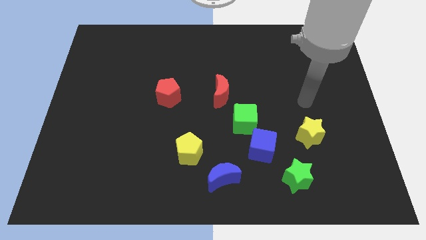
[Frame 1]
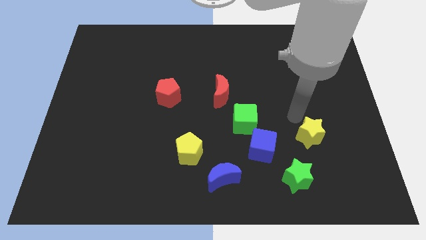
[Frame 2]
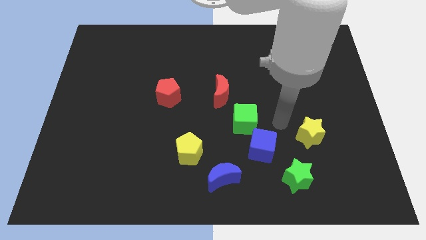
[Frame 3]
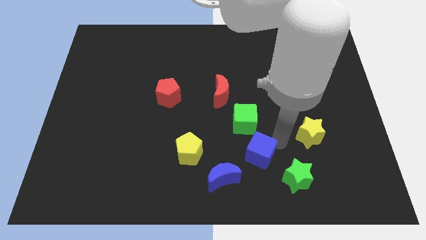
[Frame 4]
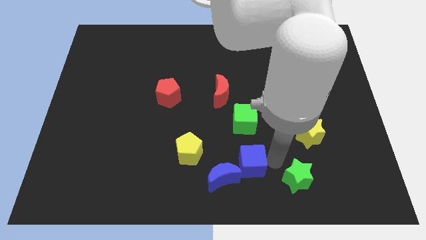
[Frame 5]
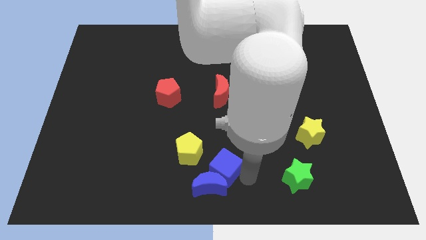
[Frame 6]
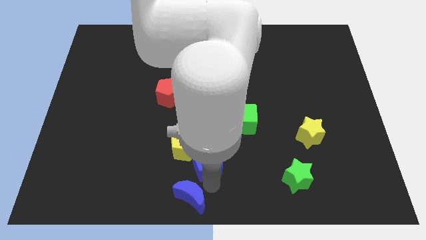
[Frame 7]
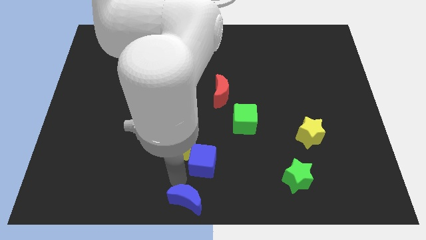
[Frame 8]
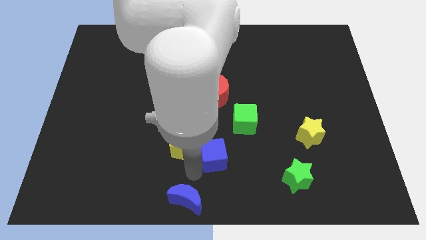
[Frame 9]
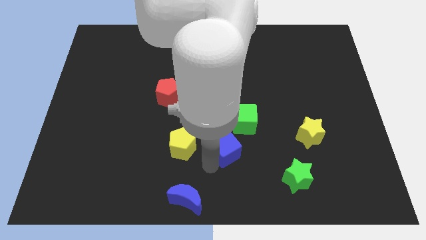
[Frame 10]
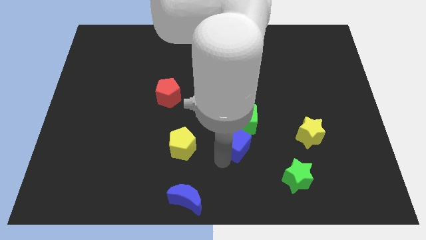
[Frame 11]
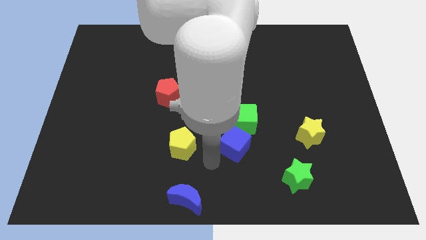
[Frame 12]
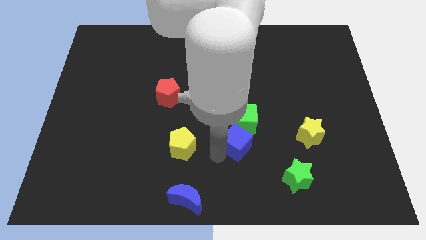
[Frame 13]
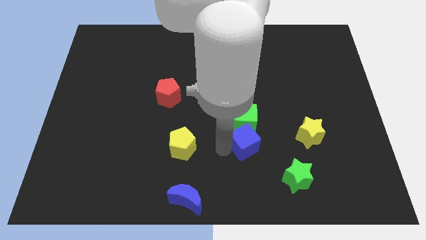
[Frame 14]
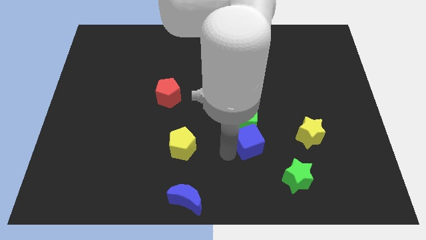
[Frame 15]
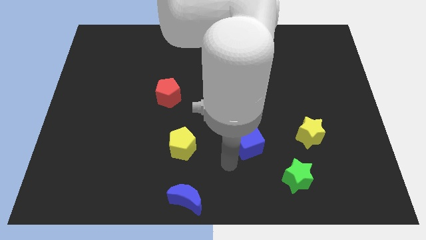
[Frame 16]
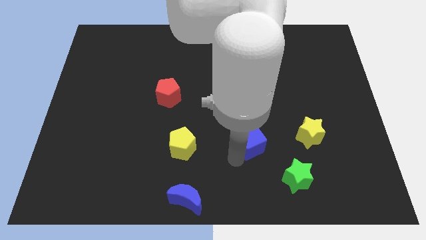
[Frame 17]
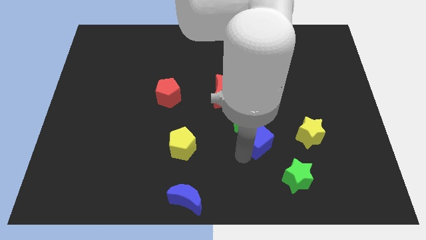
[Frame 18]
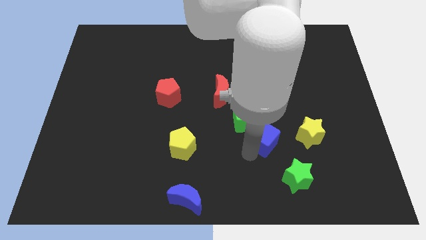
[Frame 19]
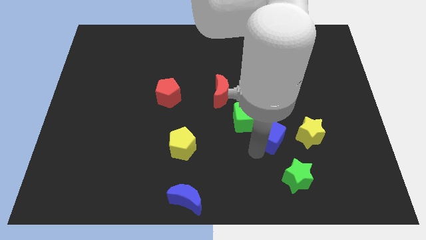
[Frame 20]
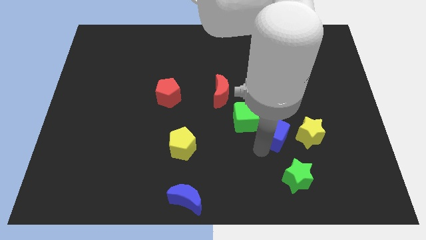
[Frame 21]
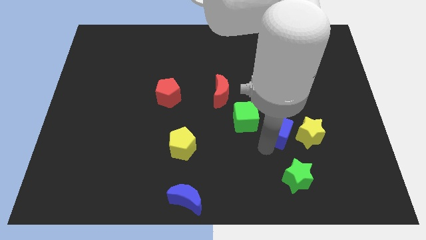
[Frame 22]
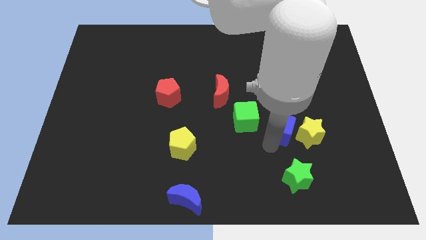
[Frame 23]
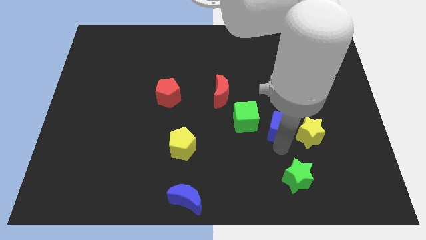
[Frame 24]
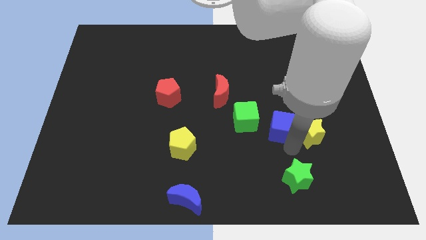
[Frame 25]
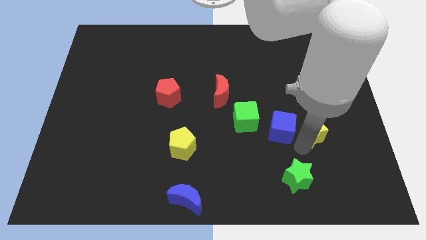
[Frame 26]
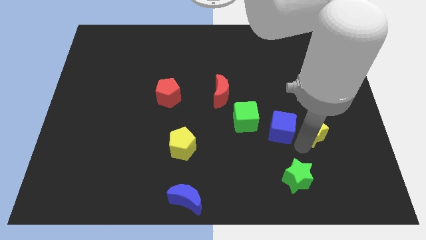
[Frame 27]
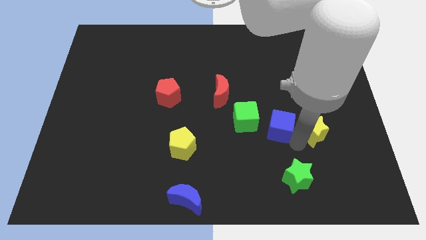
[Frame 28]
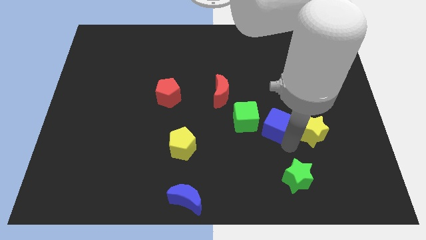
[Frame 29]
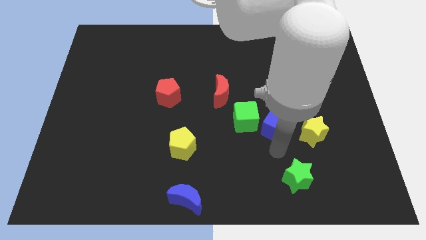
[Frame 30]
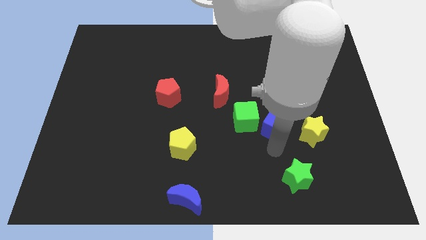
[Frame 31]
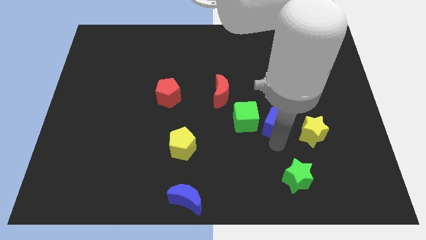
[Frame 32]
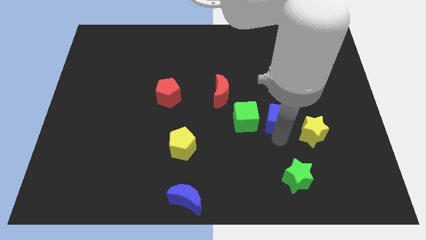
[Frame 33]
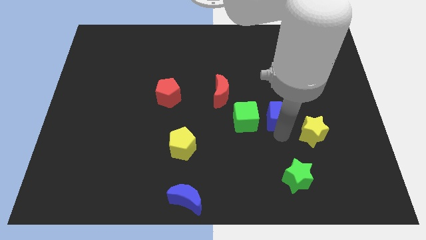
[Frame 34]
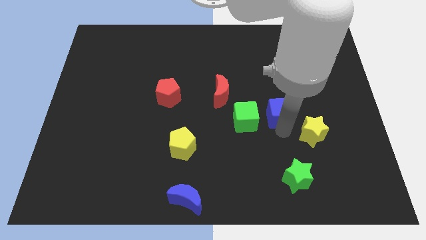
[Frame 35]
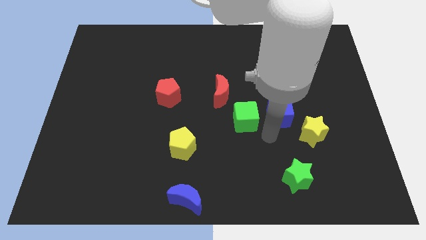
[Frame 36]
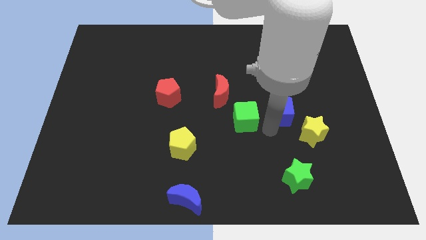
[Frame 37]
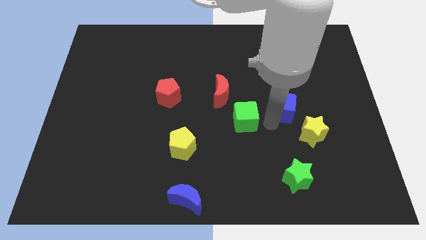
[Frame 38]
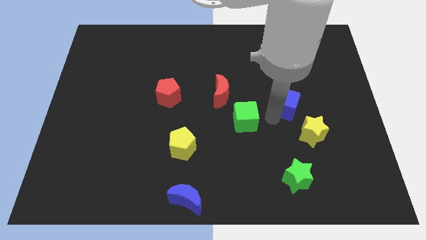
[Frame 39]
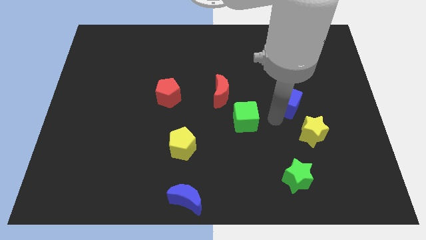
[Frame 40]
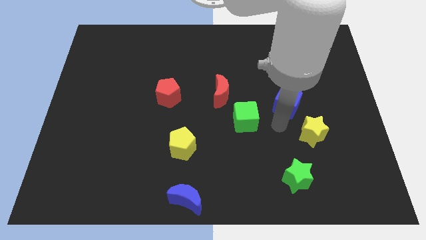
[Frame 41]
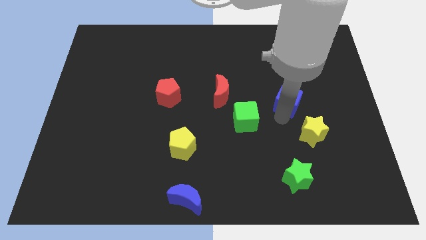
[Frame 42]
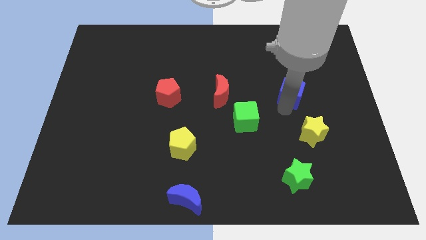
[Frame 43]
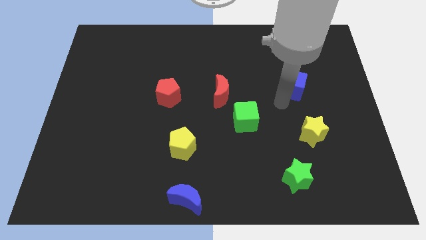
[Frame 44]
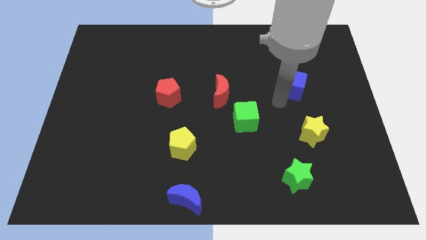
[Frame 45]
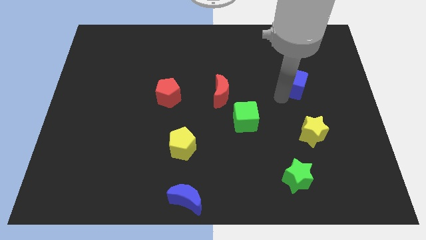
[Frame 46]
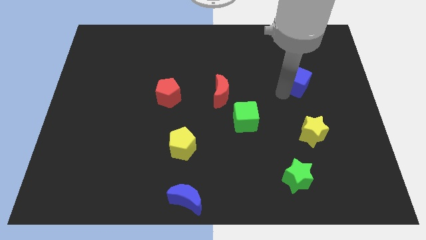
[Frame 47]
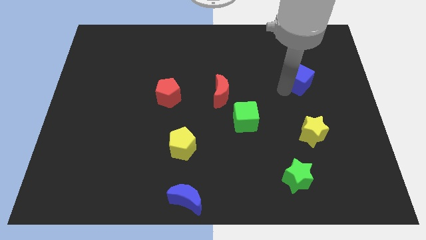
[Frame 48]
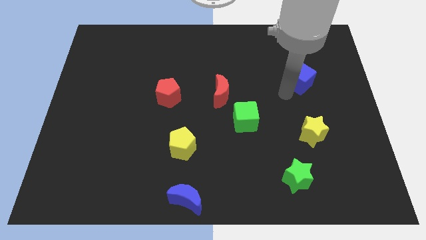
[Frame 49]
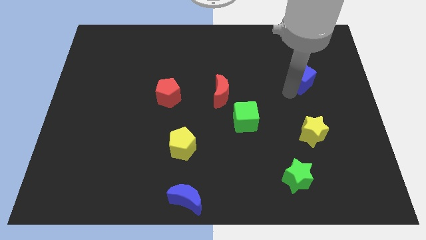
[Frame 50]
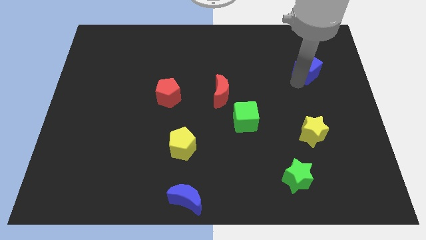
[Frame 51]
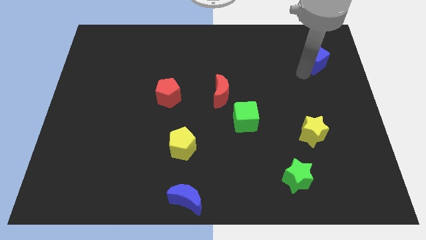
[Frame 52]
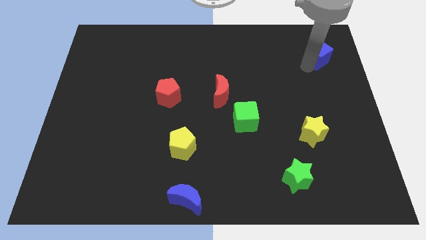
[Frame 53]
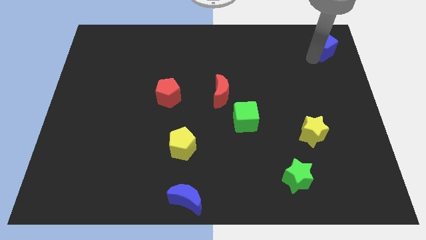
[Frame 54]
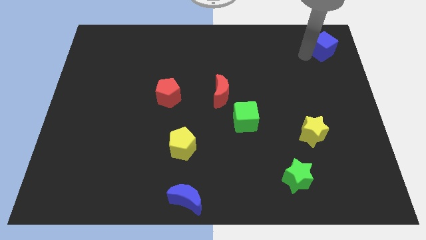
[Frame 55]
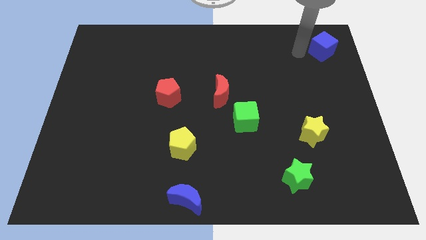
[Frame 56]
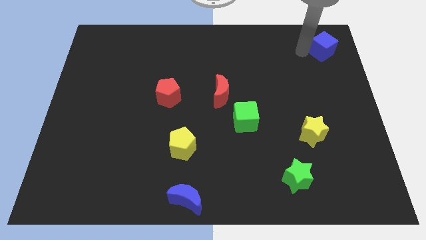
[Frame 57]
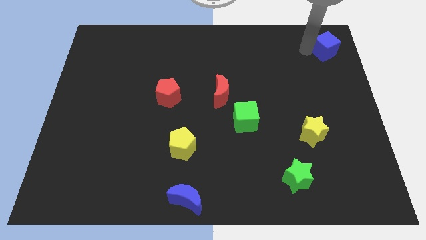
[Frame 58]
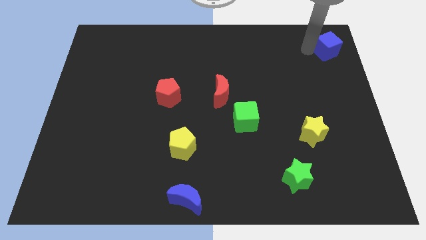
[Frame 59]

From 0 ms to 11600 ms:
push the blue cube to the upper right corner
